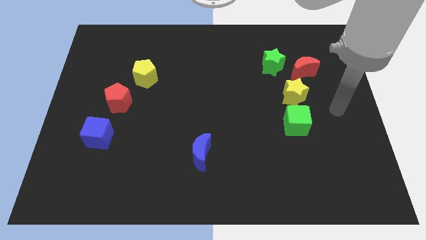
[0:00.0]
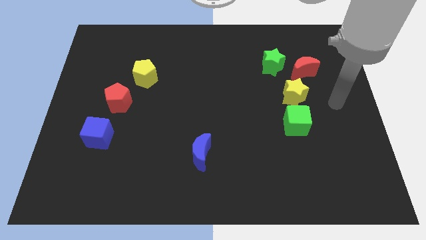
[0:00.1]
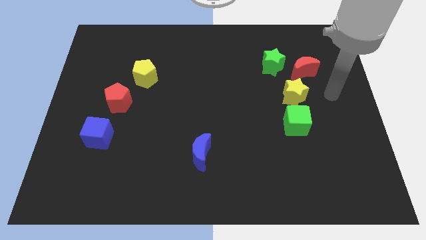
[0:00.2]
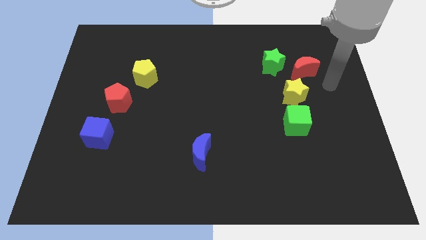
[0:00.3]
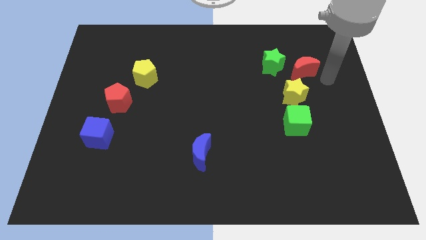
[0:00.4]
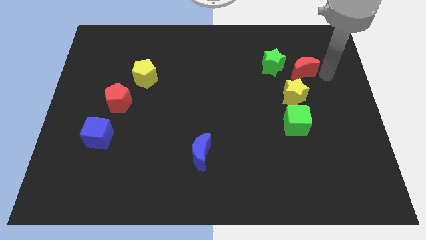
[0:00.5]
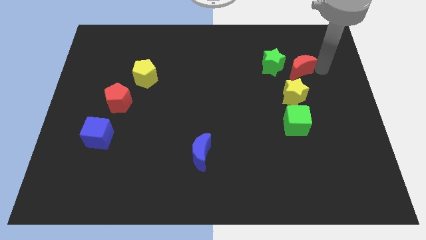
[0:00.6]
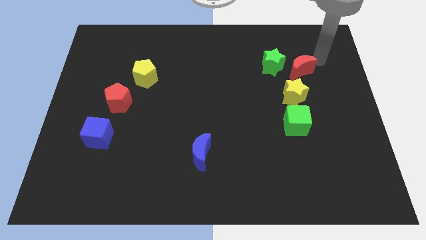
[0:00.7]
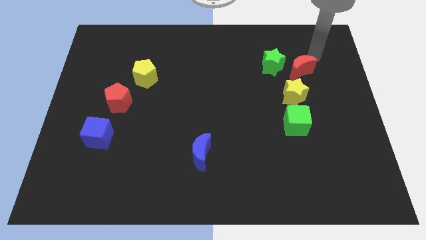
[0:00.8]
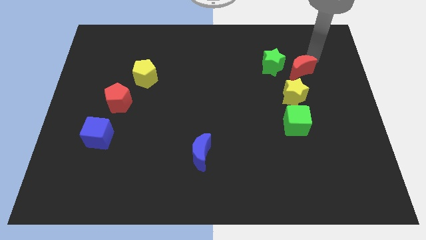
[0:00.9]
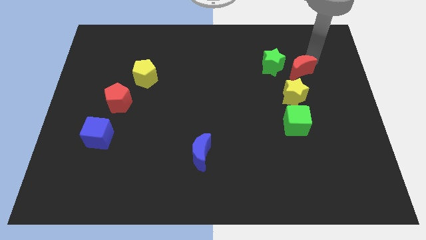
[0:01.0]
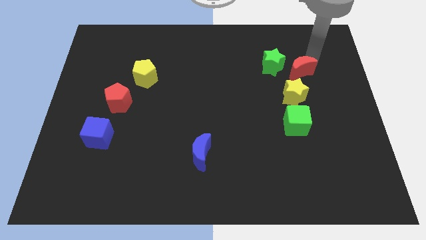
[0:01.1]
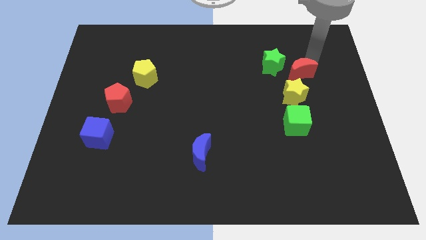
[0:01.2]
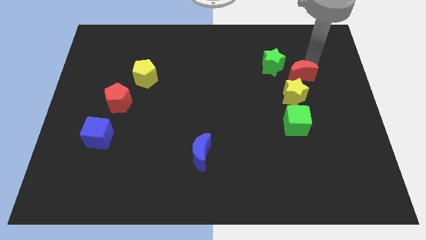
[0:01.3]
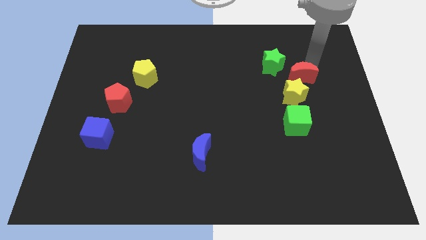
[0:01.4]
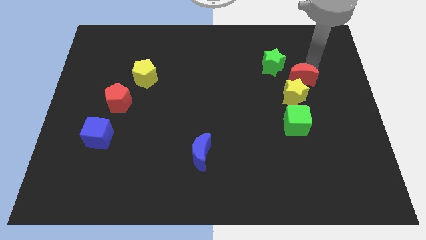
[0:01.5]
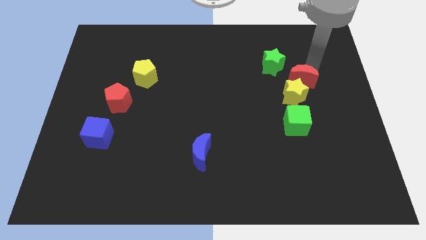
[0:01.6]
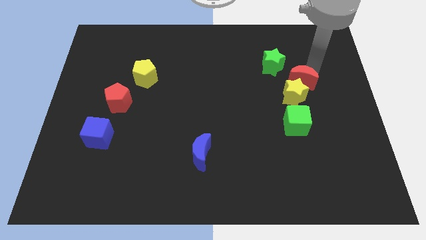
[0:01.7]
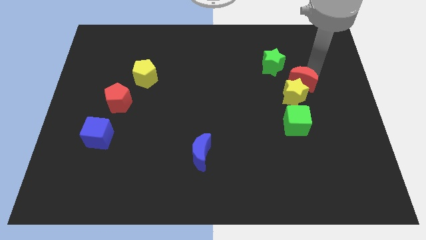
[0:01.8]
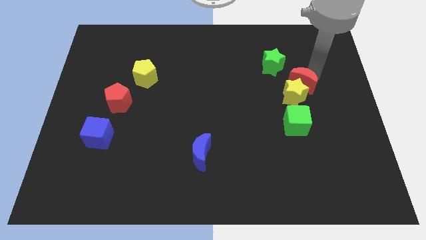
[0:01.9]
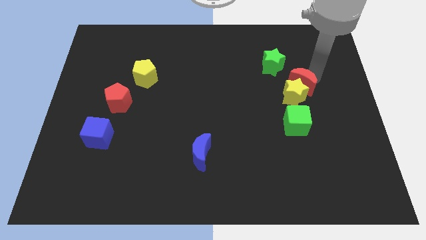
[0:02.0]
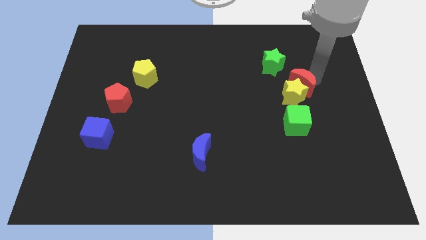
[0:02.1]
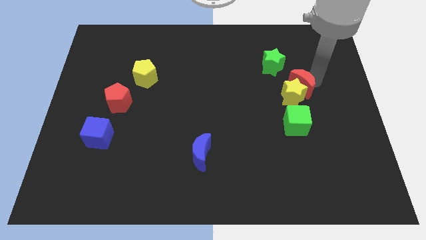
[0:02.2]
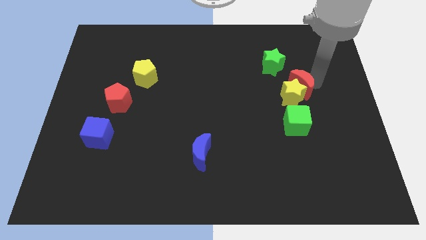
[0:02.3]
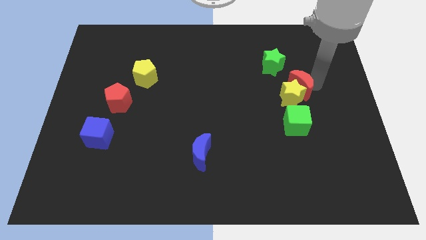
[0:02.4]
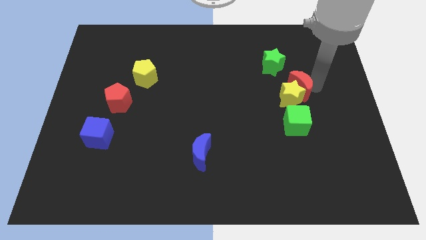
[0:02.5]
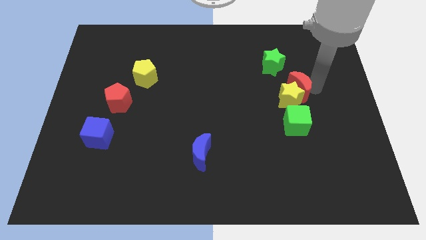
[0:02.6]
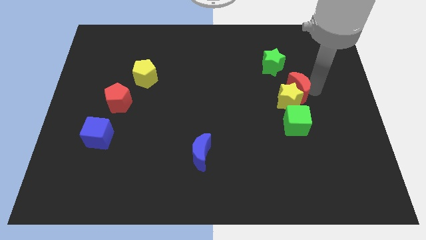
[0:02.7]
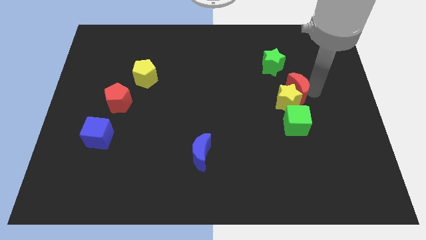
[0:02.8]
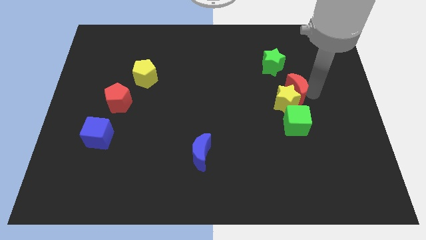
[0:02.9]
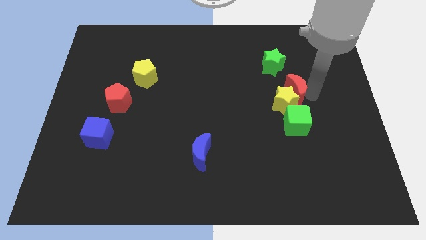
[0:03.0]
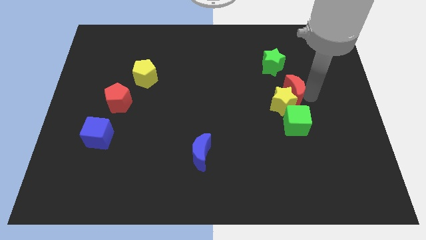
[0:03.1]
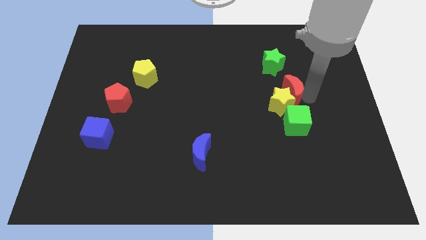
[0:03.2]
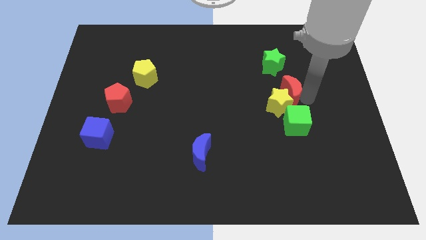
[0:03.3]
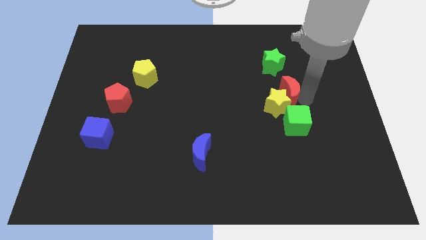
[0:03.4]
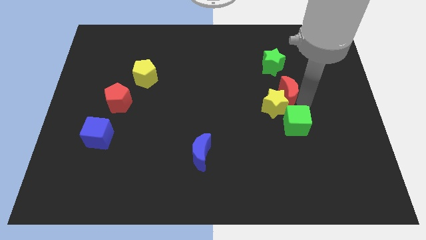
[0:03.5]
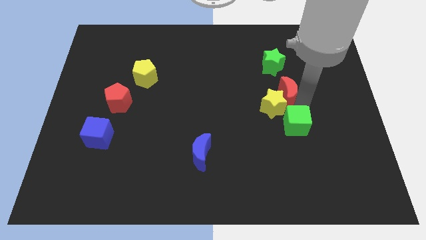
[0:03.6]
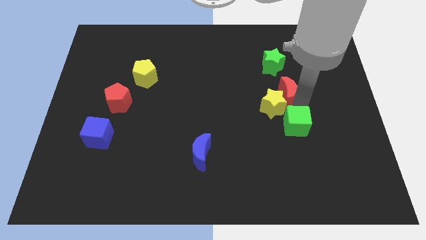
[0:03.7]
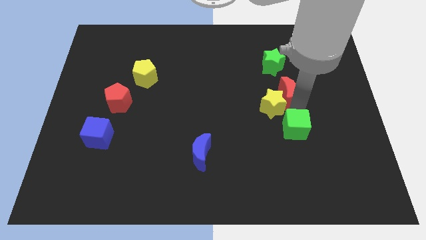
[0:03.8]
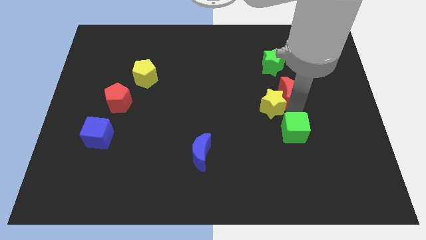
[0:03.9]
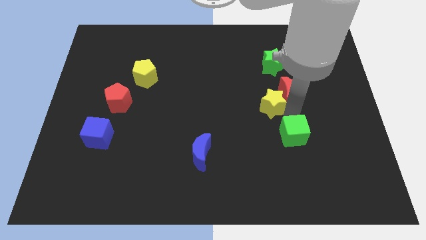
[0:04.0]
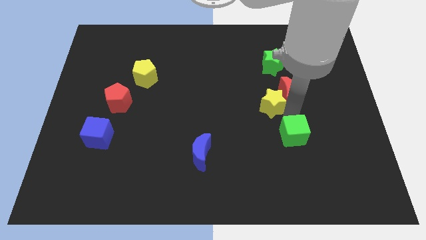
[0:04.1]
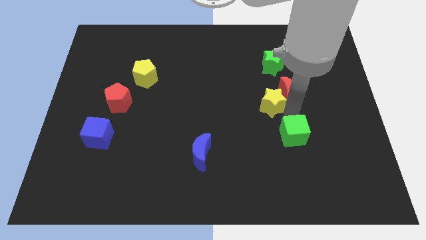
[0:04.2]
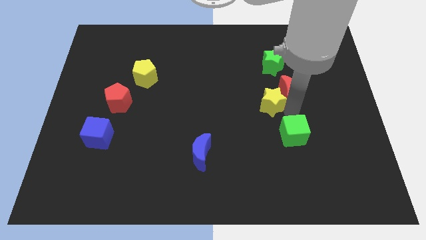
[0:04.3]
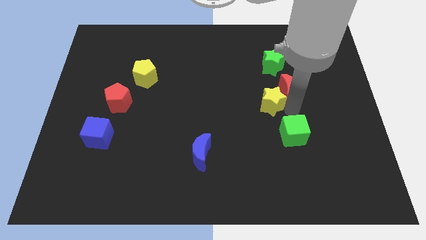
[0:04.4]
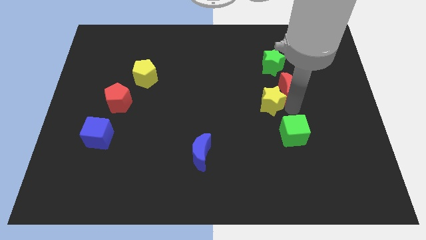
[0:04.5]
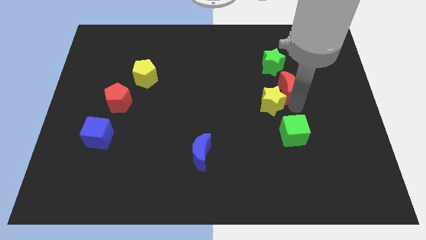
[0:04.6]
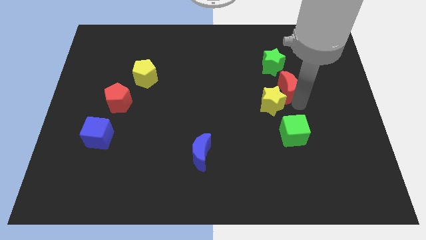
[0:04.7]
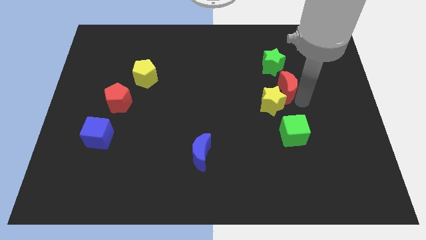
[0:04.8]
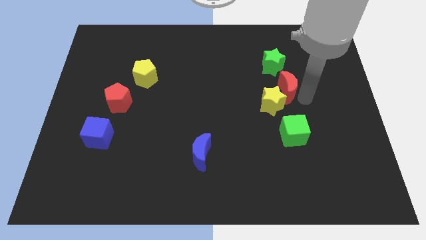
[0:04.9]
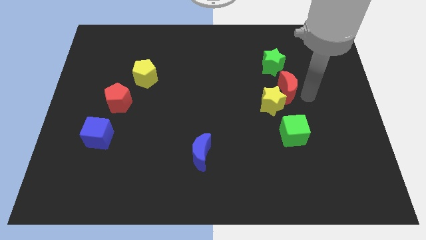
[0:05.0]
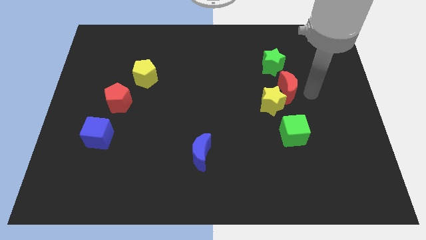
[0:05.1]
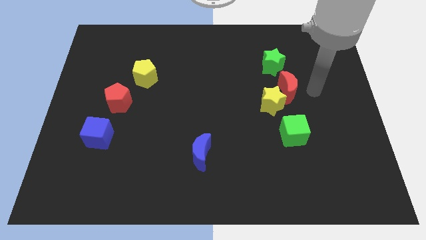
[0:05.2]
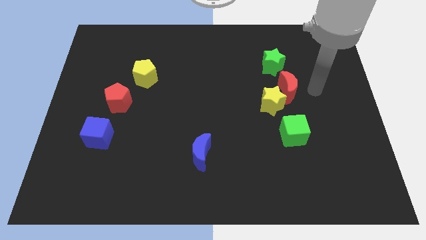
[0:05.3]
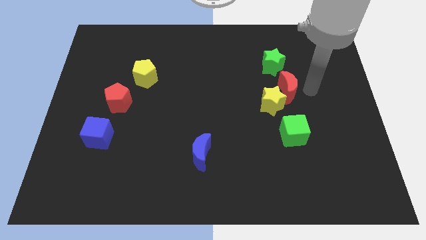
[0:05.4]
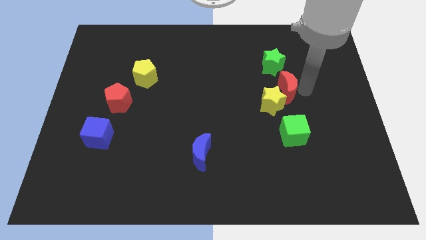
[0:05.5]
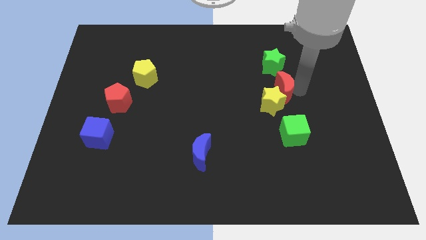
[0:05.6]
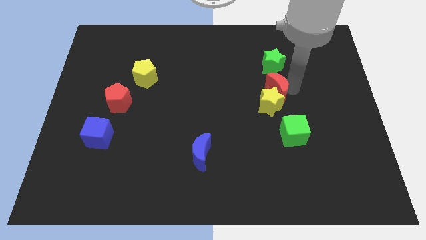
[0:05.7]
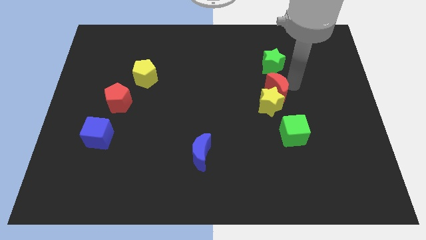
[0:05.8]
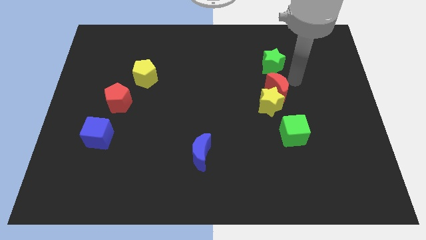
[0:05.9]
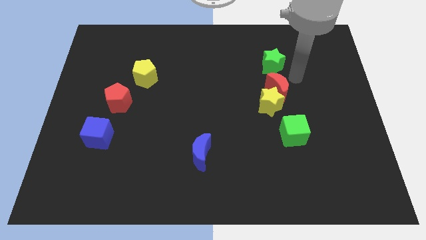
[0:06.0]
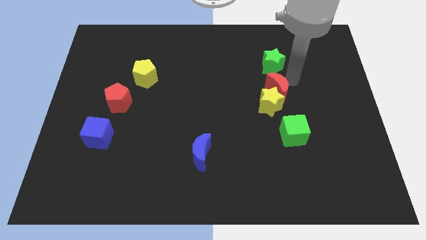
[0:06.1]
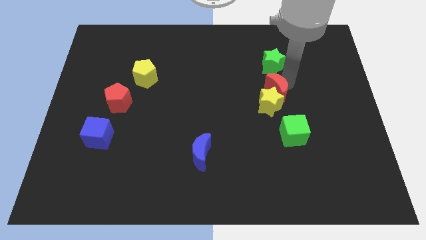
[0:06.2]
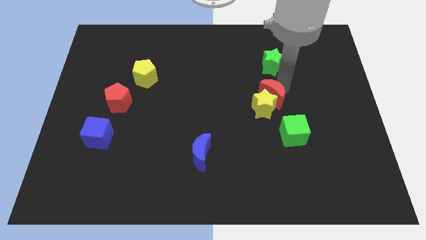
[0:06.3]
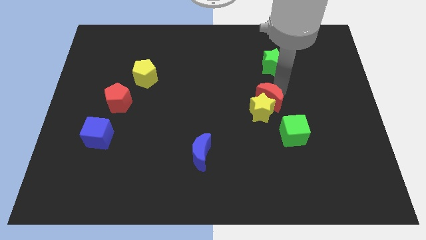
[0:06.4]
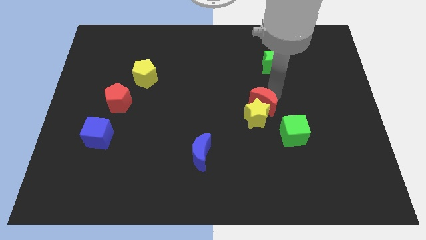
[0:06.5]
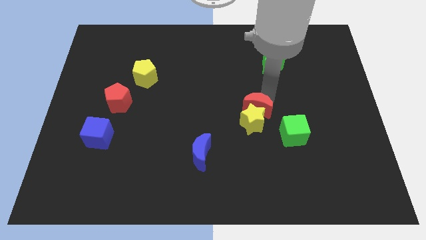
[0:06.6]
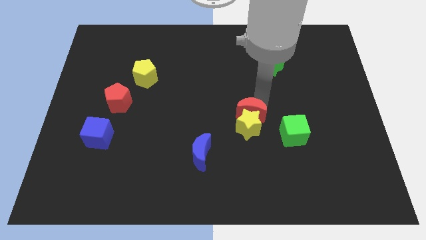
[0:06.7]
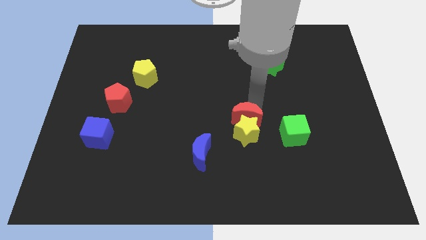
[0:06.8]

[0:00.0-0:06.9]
put the red moon left of the green cube

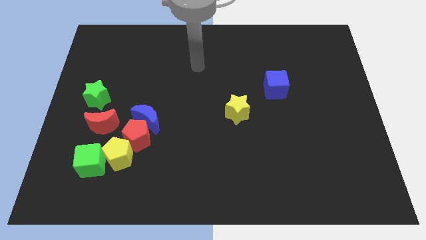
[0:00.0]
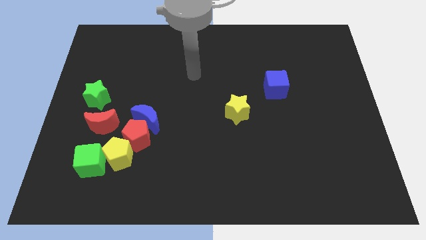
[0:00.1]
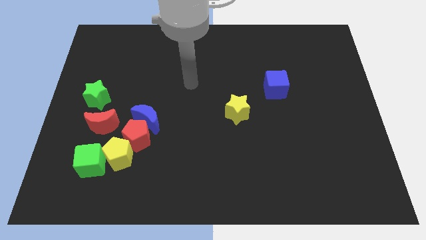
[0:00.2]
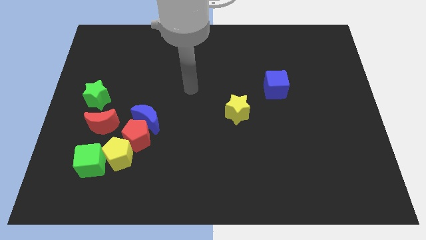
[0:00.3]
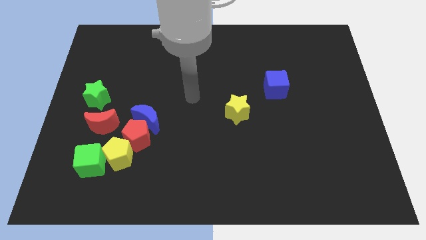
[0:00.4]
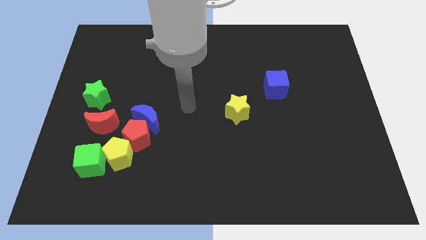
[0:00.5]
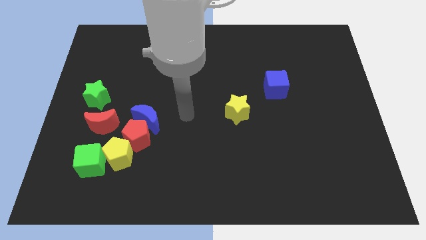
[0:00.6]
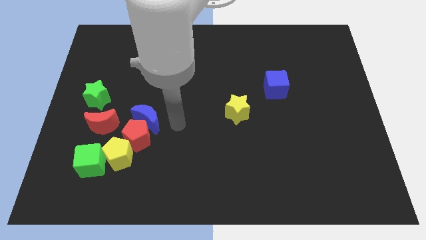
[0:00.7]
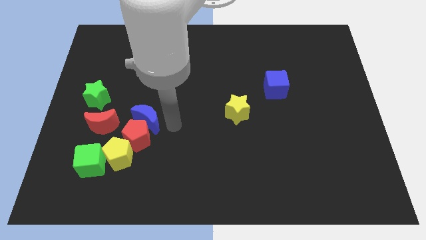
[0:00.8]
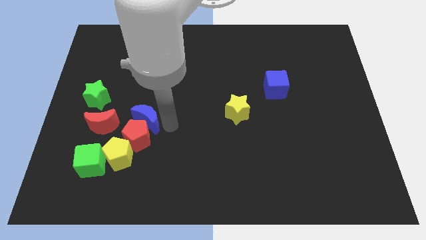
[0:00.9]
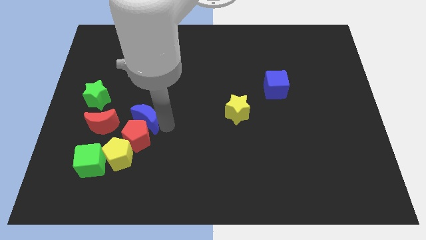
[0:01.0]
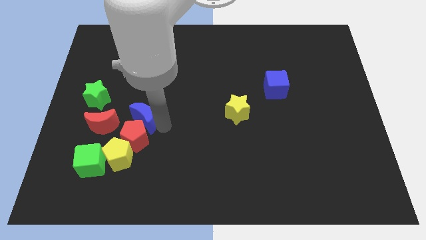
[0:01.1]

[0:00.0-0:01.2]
put the blue moon to the top side of the yellow pentagon
